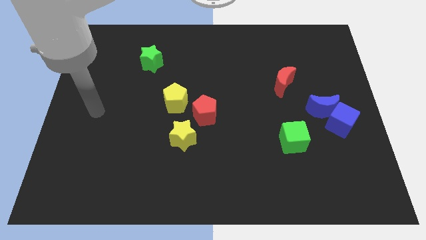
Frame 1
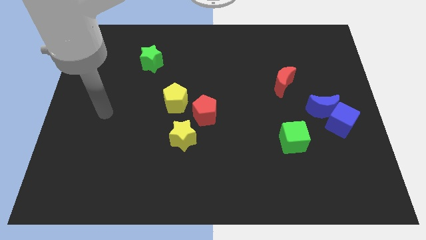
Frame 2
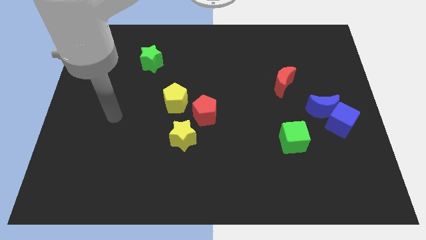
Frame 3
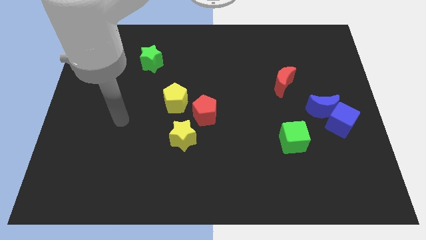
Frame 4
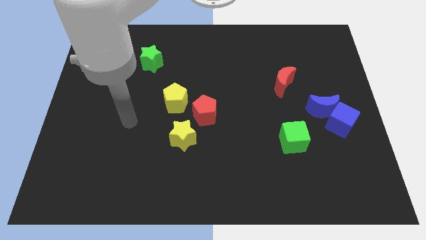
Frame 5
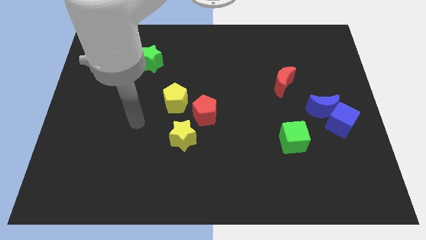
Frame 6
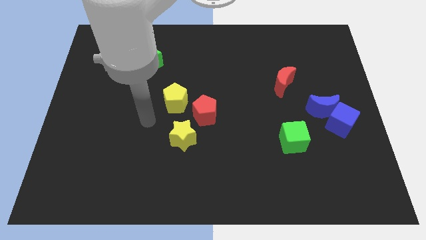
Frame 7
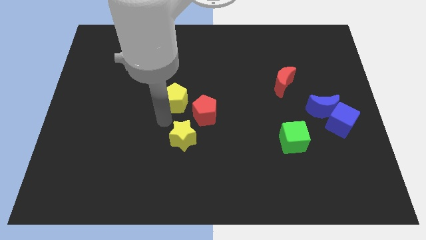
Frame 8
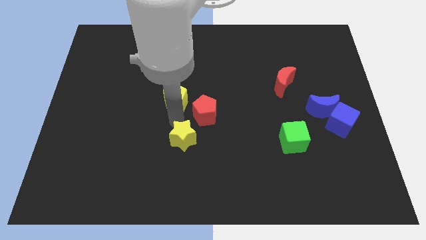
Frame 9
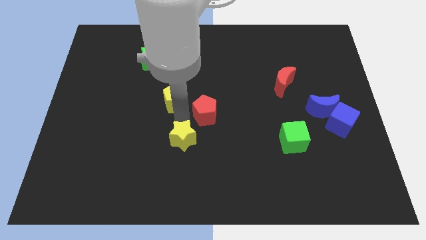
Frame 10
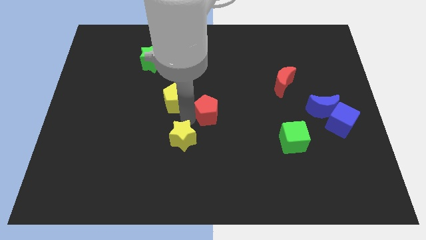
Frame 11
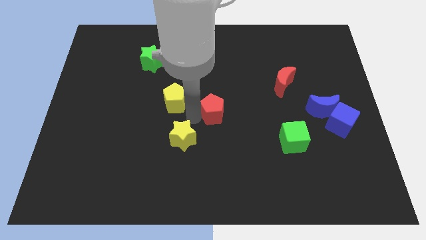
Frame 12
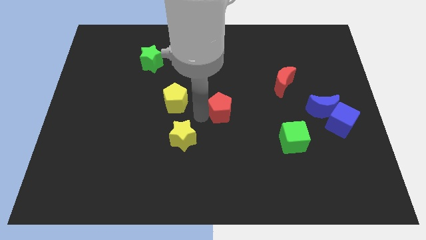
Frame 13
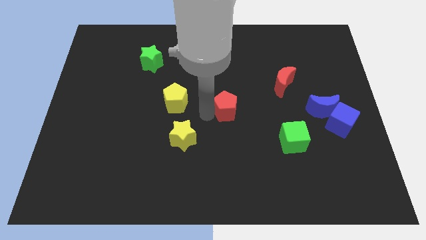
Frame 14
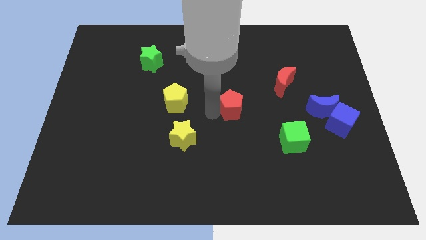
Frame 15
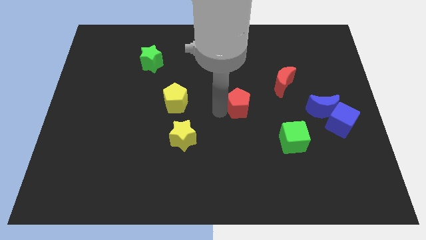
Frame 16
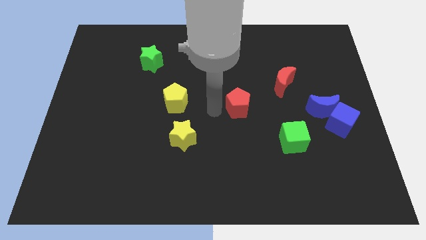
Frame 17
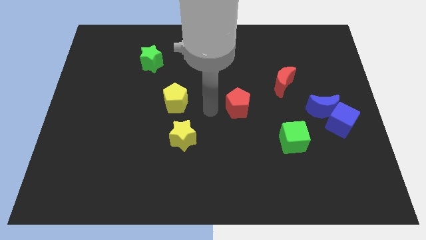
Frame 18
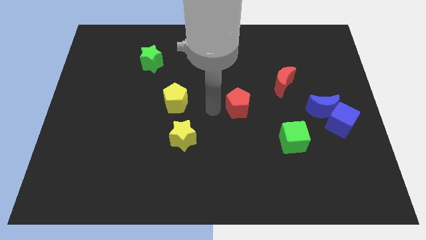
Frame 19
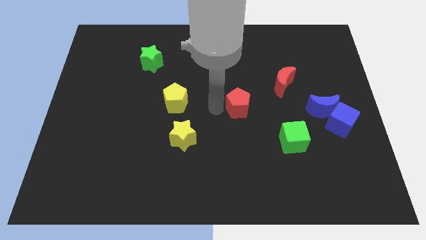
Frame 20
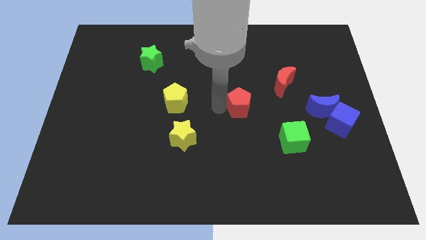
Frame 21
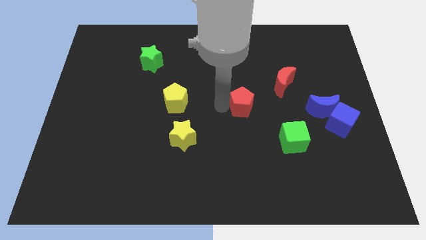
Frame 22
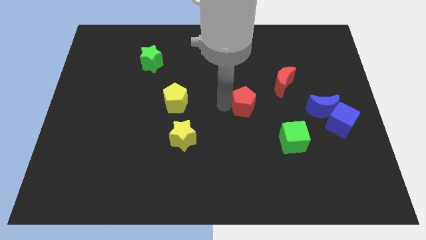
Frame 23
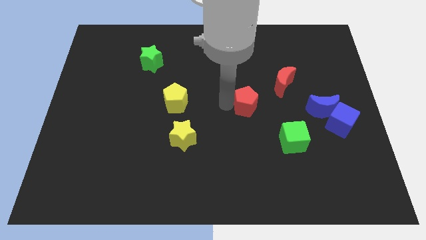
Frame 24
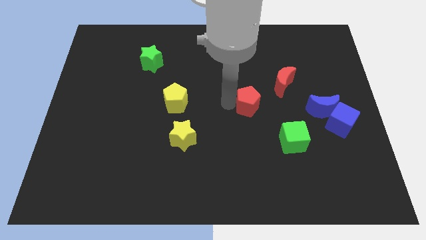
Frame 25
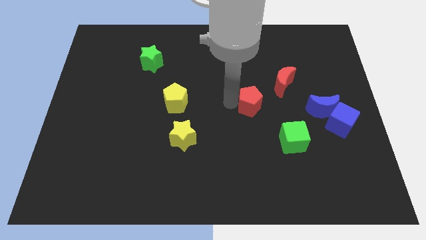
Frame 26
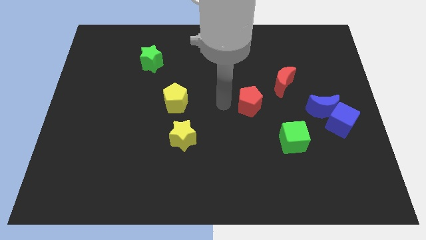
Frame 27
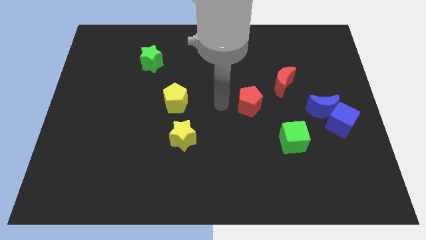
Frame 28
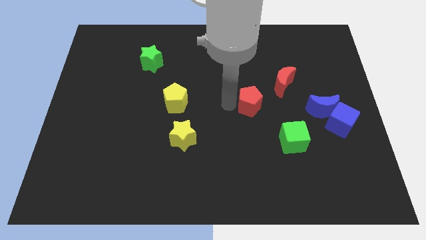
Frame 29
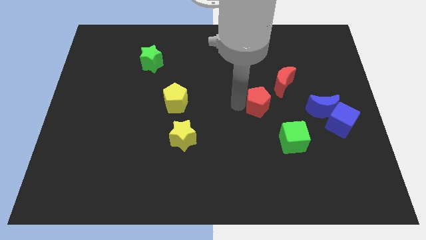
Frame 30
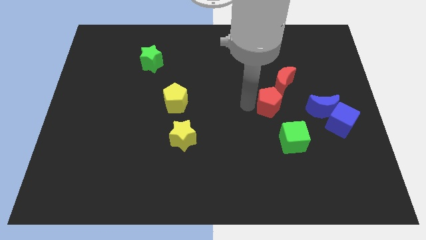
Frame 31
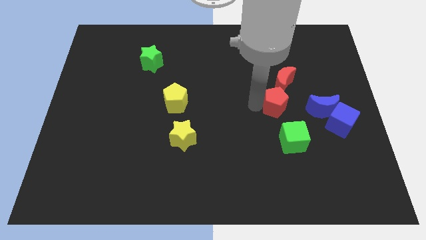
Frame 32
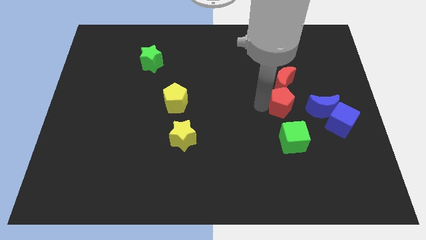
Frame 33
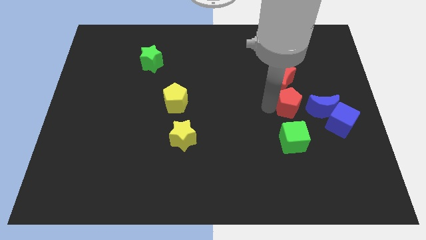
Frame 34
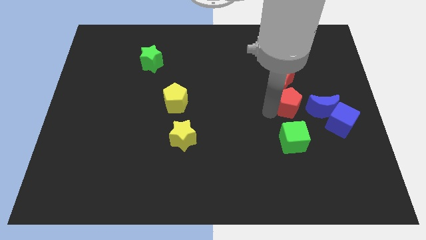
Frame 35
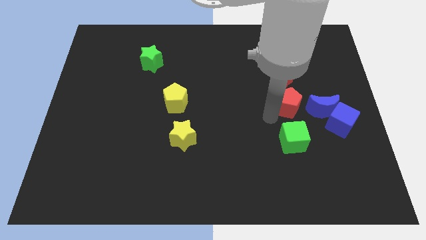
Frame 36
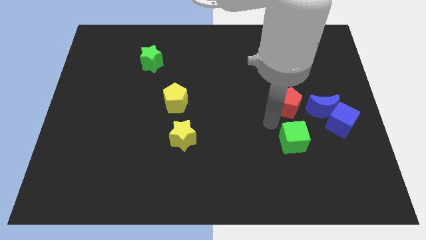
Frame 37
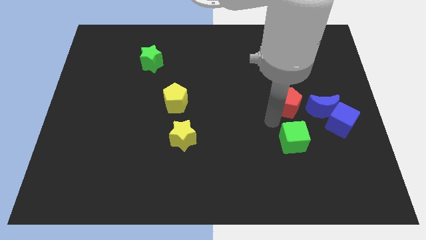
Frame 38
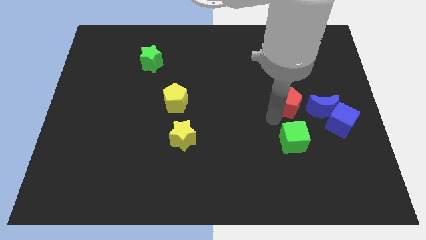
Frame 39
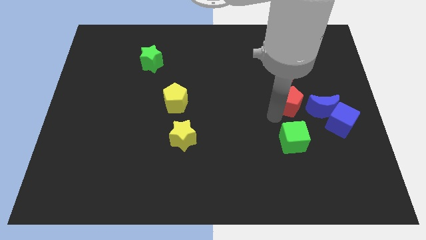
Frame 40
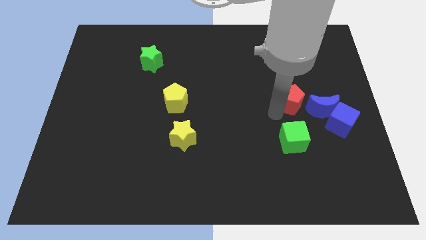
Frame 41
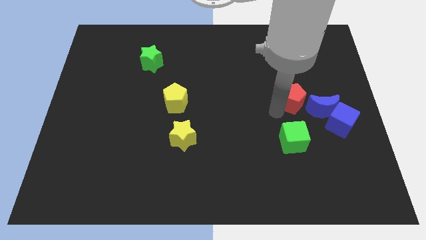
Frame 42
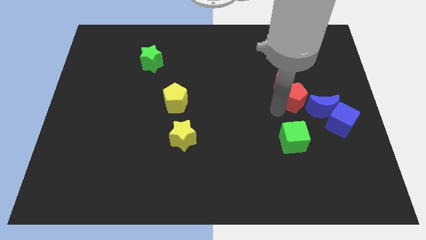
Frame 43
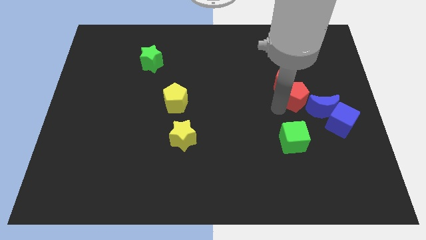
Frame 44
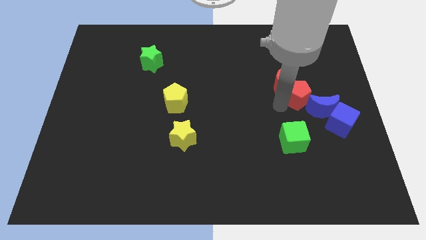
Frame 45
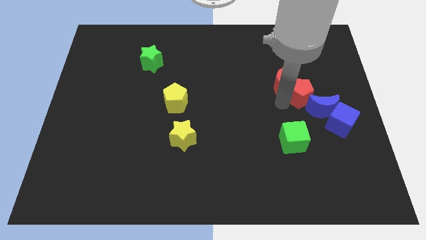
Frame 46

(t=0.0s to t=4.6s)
put the red pentagon to the top of the blue moon

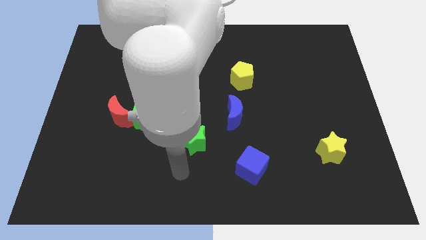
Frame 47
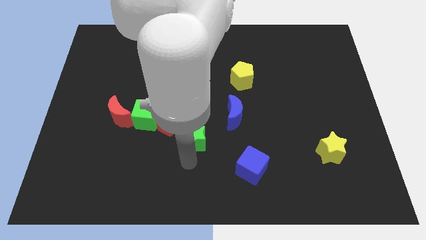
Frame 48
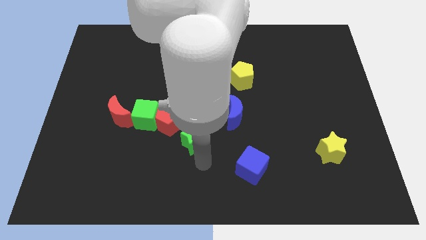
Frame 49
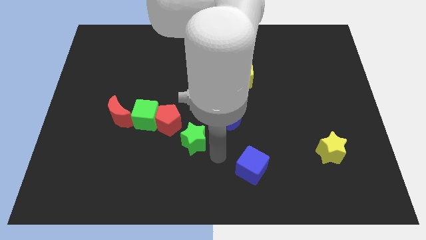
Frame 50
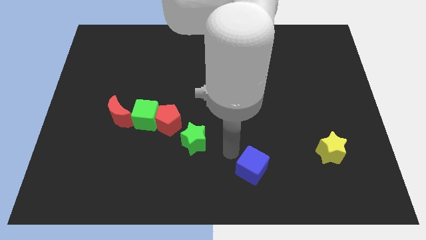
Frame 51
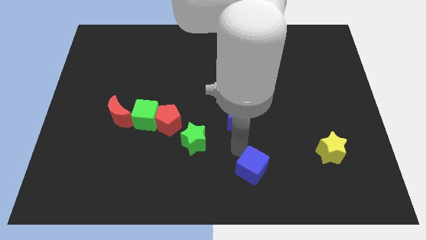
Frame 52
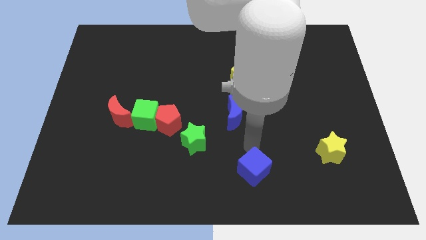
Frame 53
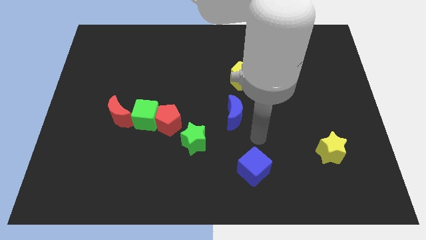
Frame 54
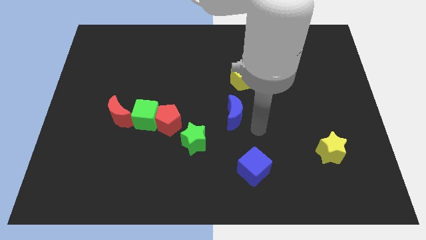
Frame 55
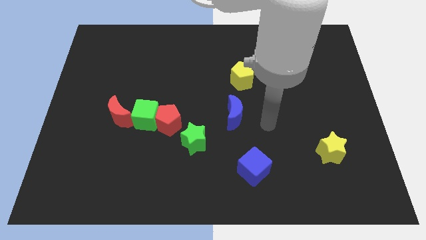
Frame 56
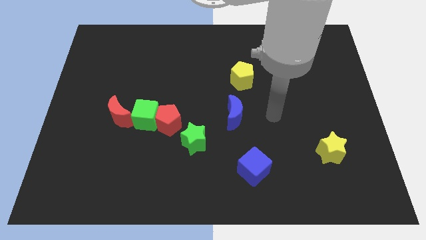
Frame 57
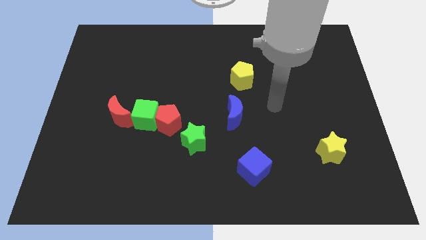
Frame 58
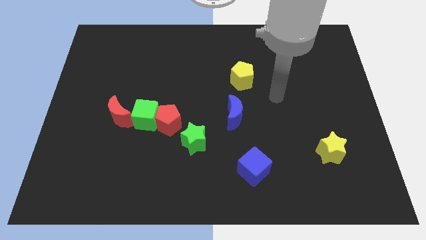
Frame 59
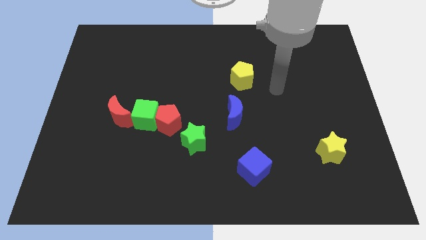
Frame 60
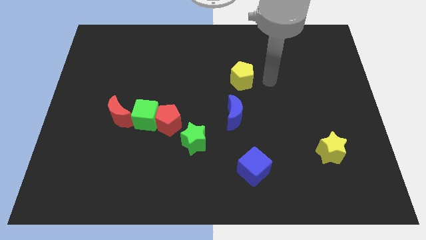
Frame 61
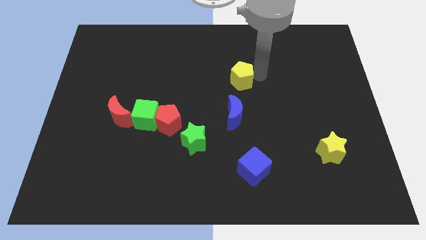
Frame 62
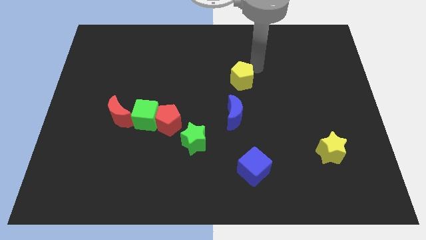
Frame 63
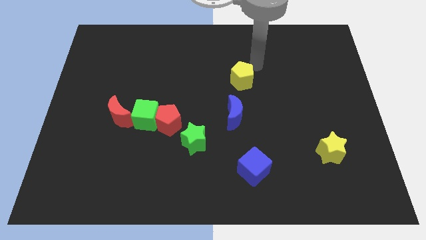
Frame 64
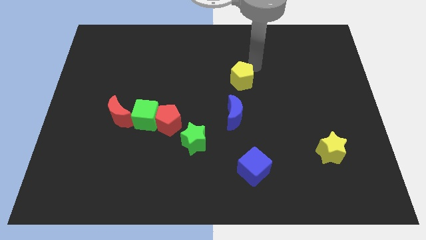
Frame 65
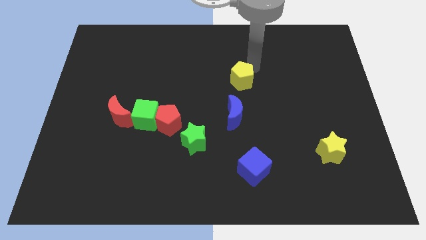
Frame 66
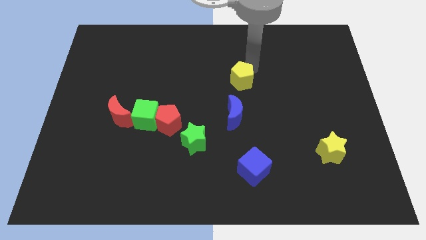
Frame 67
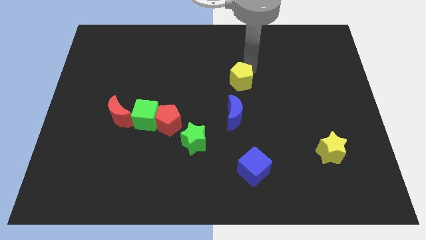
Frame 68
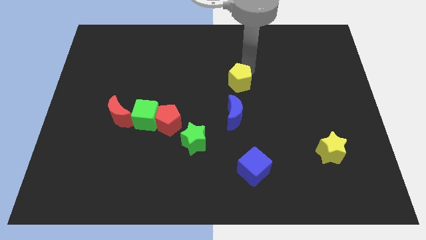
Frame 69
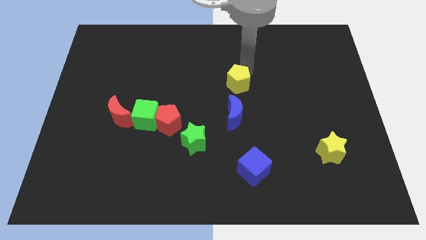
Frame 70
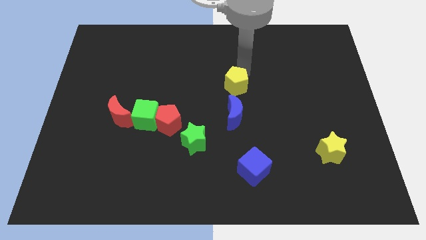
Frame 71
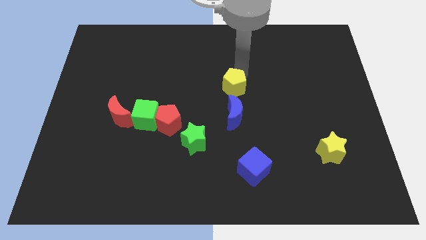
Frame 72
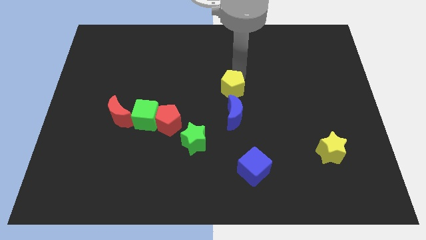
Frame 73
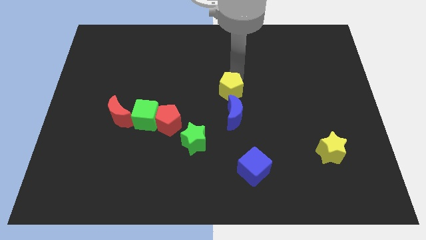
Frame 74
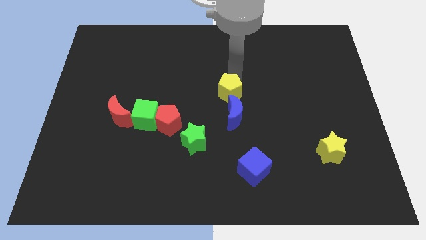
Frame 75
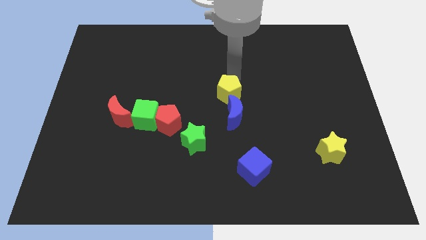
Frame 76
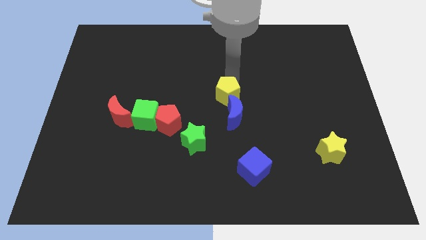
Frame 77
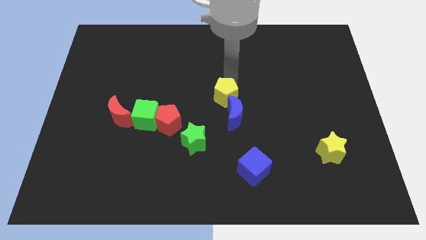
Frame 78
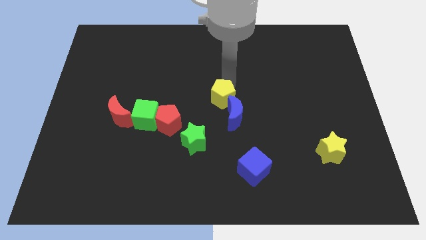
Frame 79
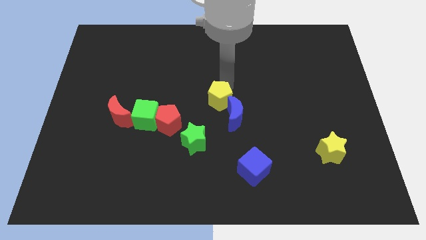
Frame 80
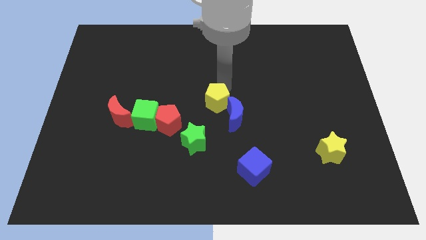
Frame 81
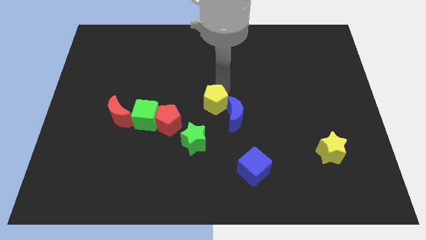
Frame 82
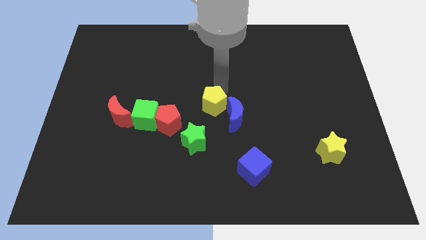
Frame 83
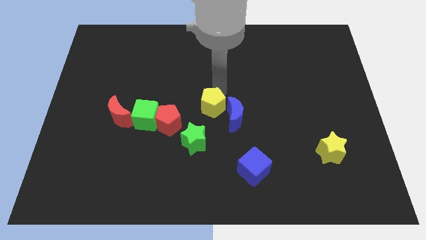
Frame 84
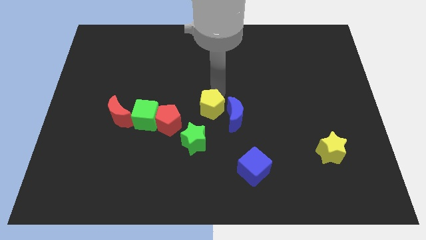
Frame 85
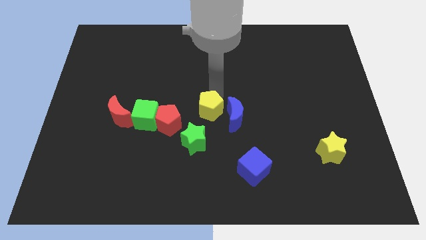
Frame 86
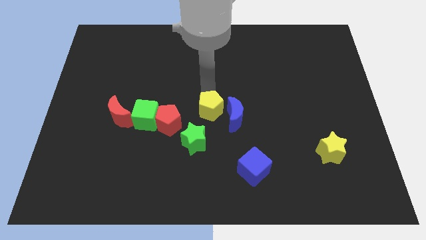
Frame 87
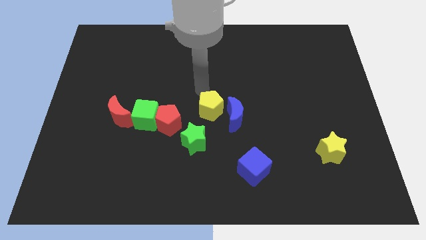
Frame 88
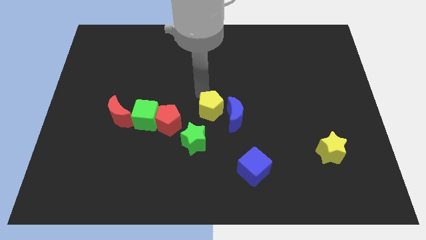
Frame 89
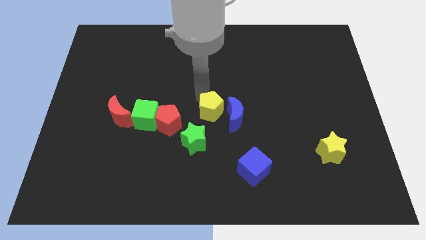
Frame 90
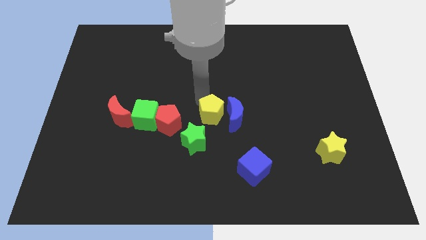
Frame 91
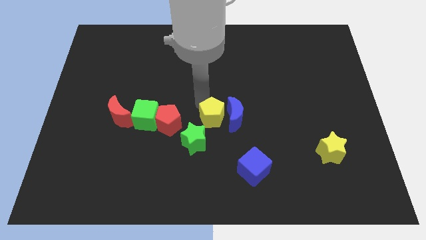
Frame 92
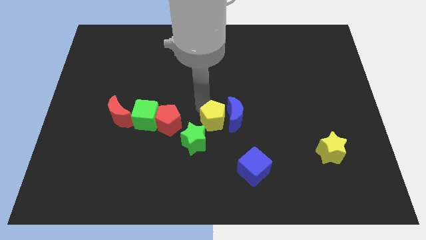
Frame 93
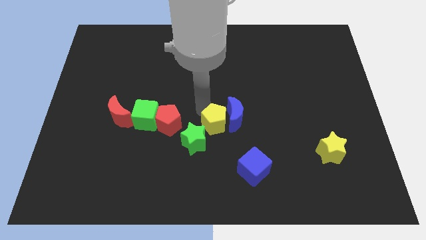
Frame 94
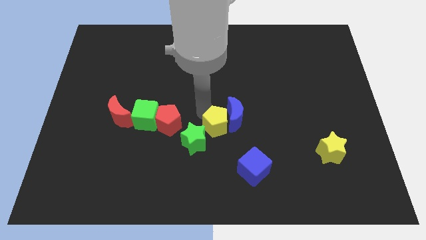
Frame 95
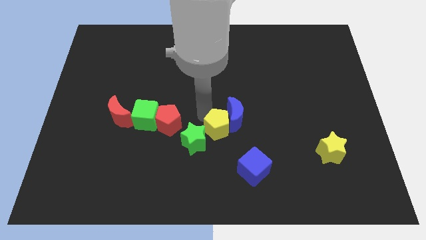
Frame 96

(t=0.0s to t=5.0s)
put the yellow pentagon to the top left of the blue cube
